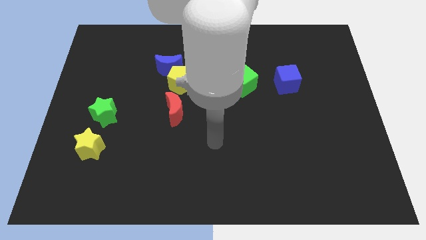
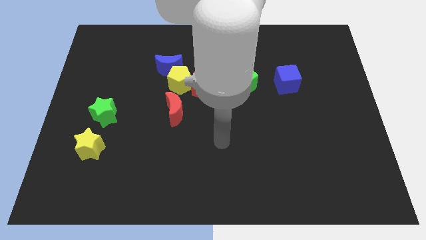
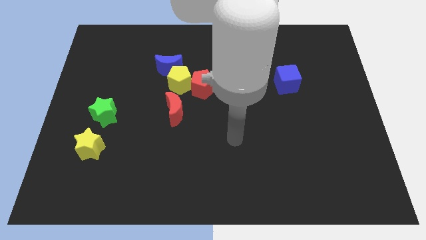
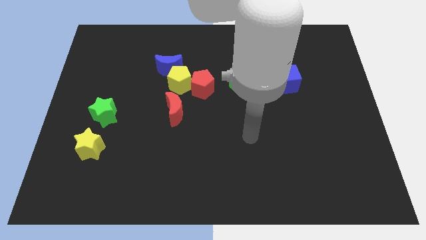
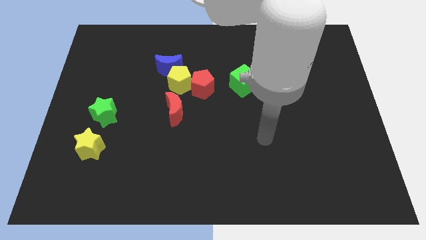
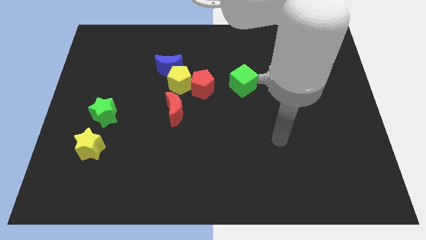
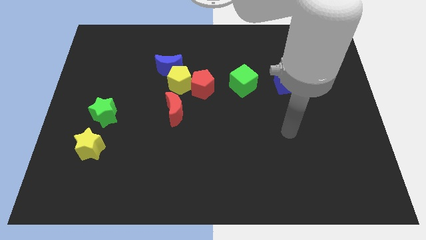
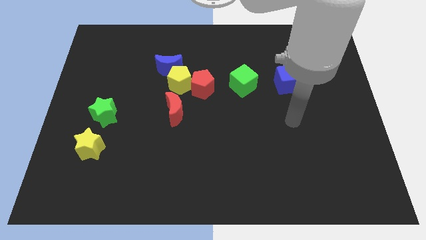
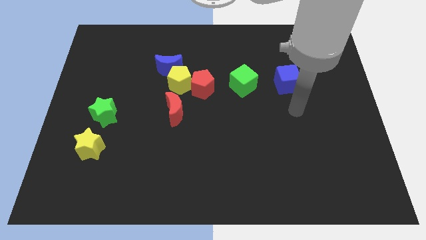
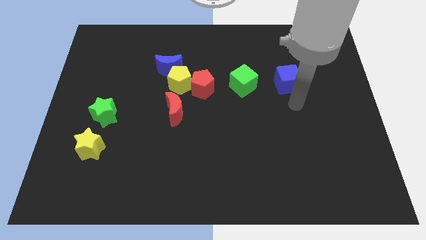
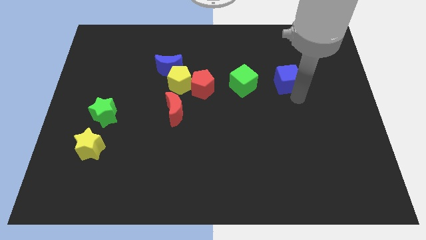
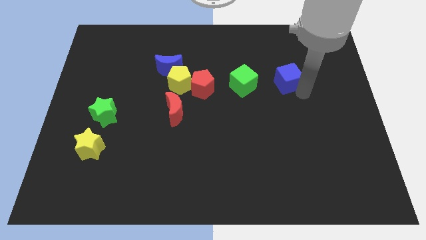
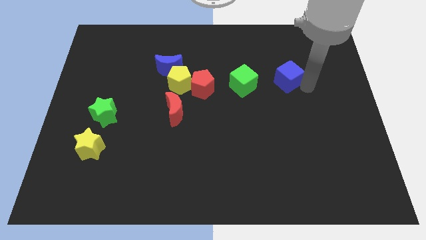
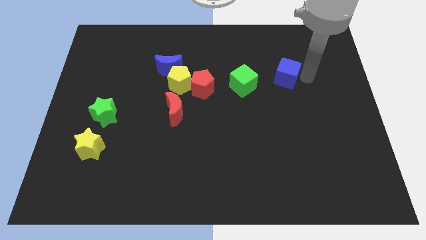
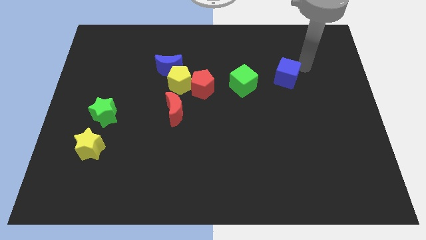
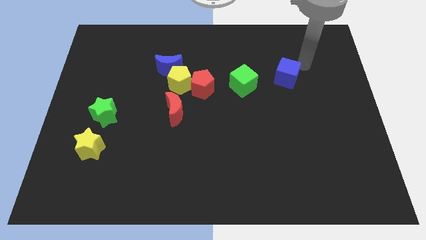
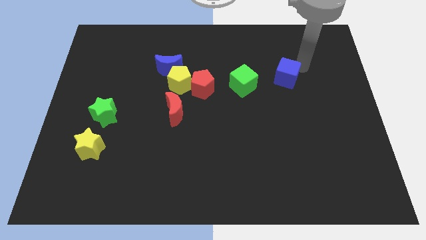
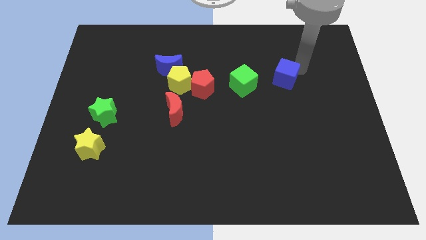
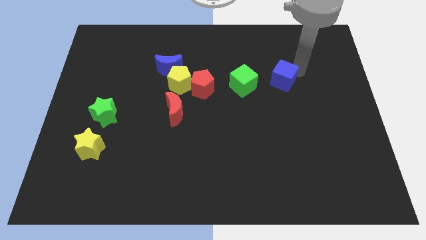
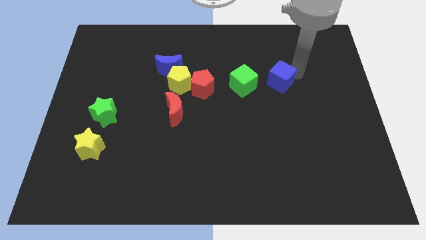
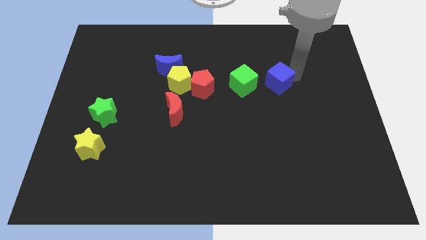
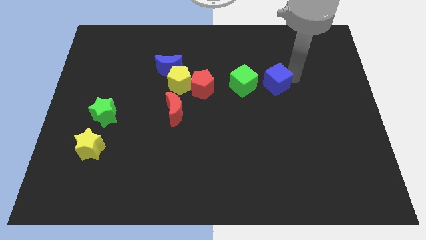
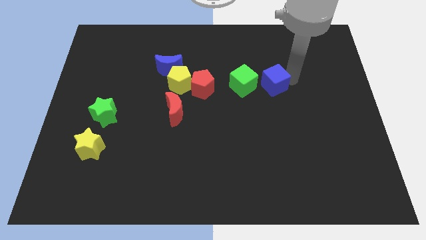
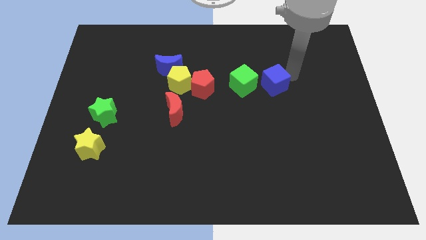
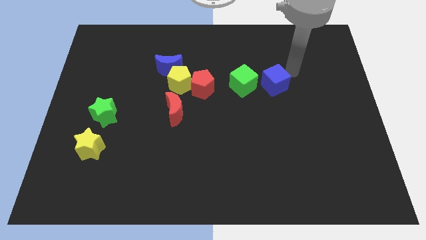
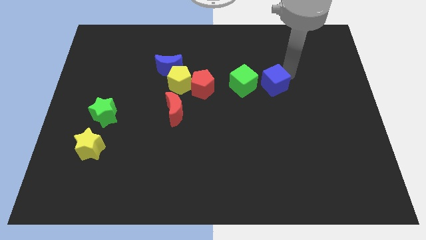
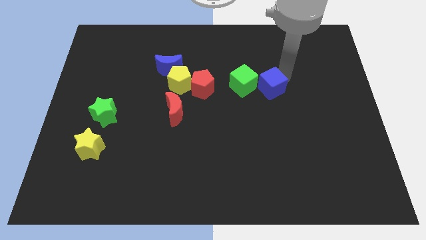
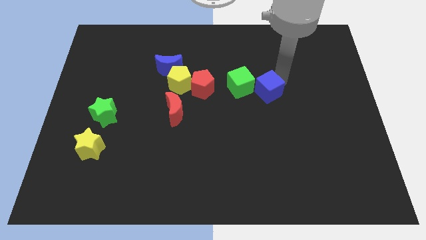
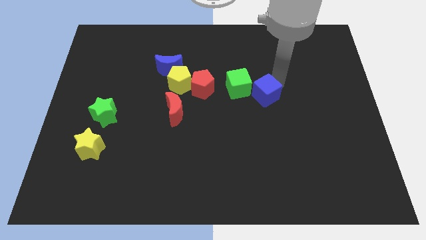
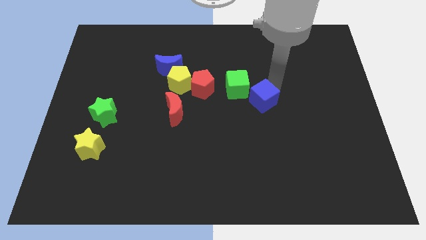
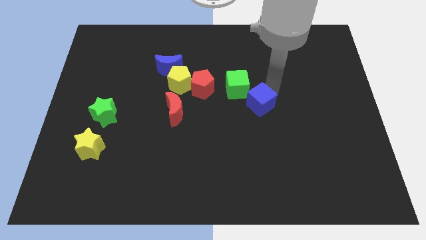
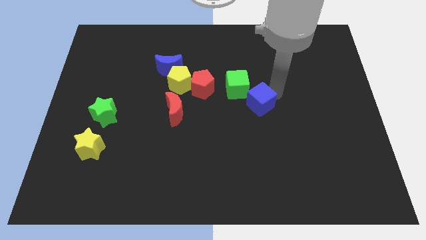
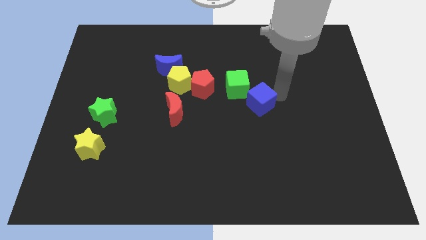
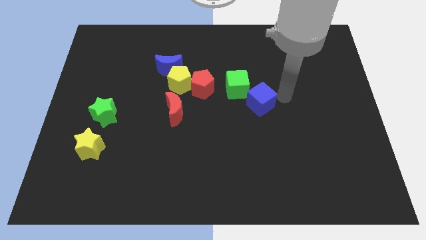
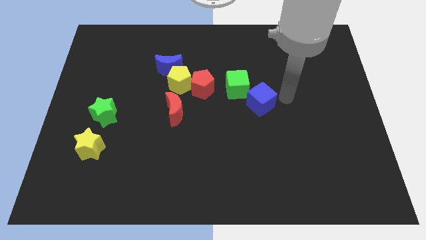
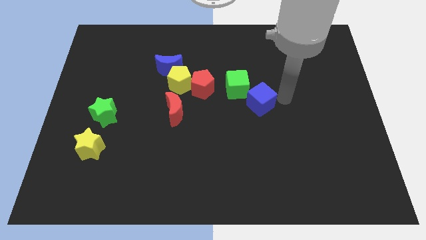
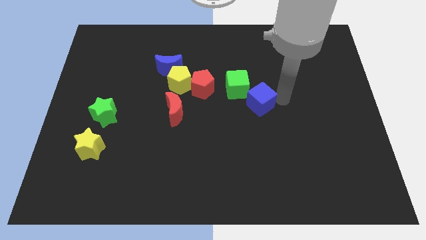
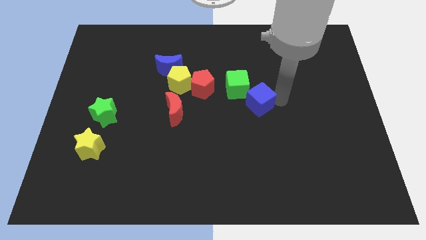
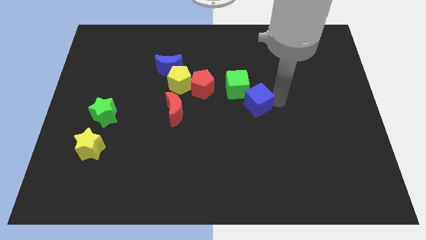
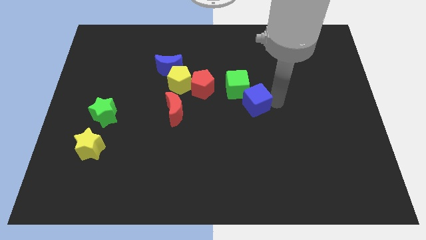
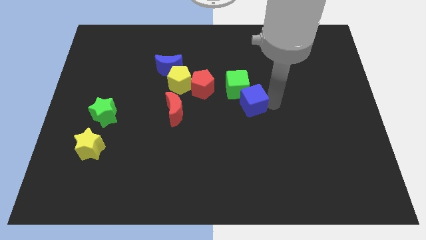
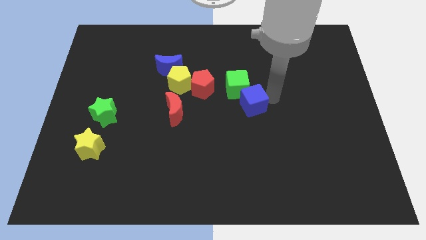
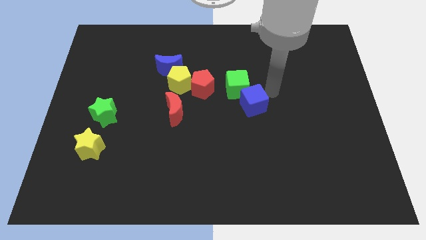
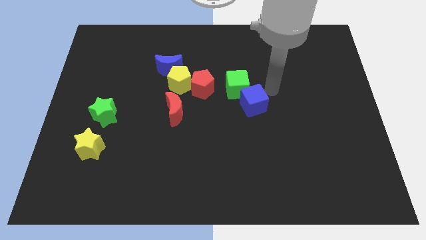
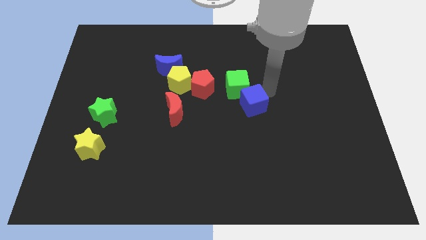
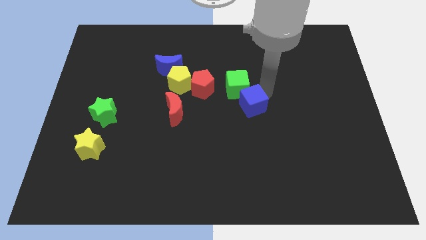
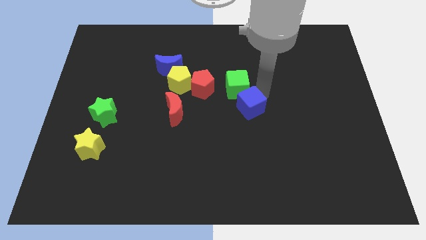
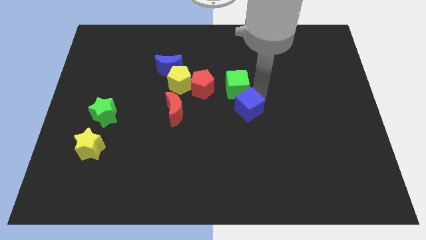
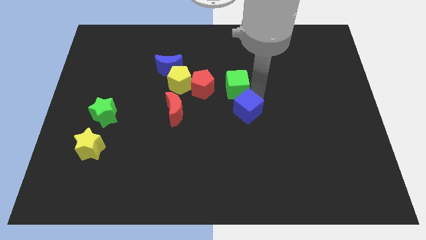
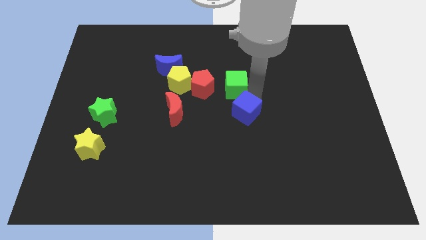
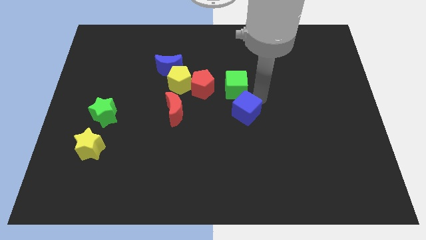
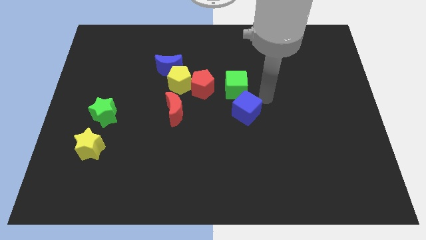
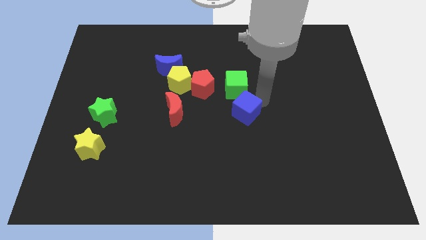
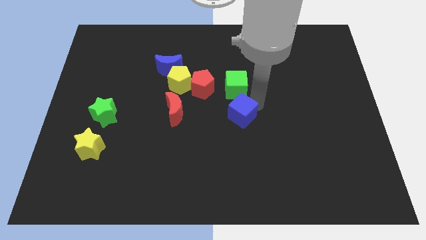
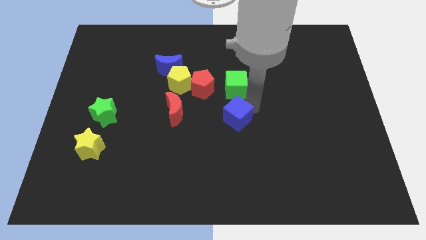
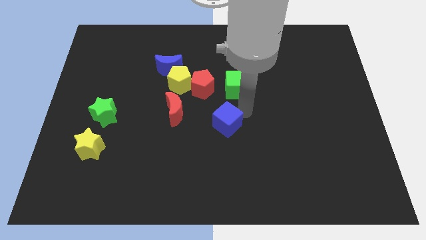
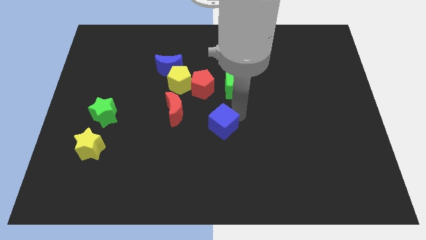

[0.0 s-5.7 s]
slide the blue cube downwards and left diagonally

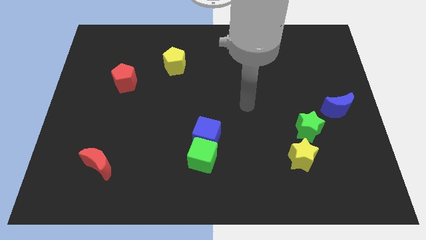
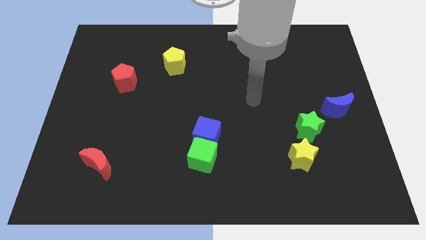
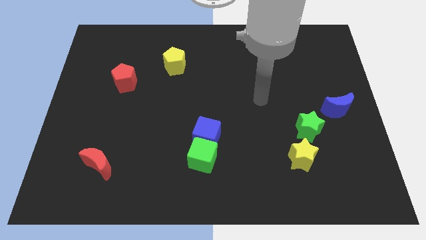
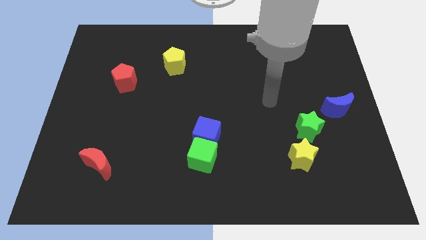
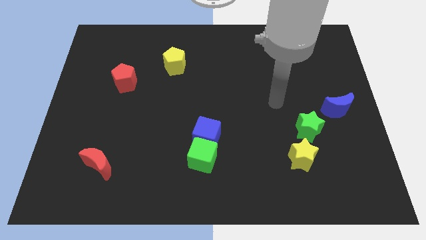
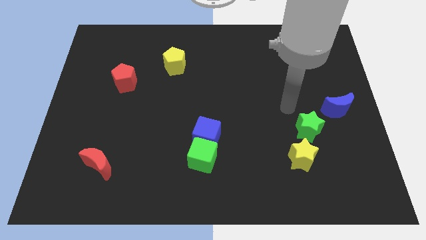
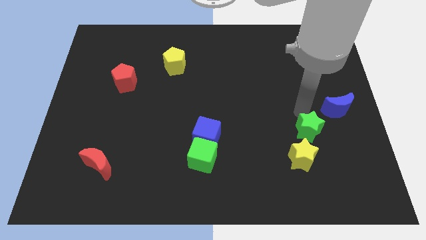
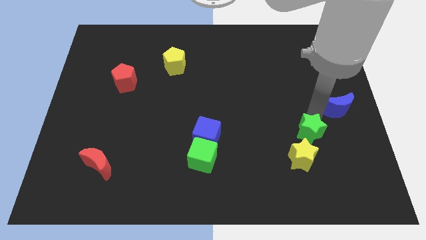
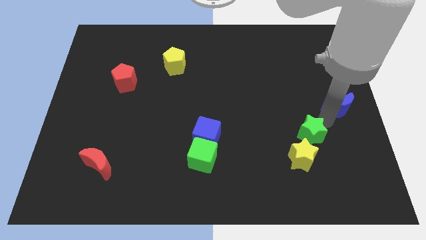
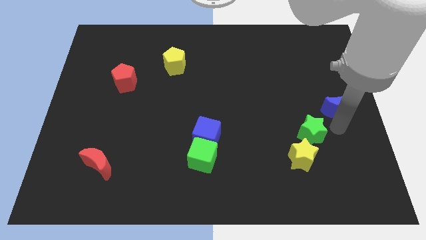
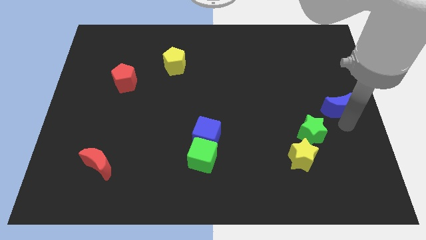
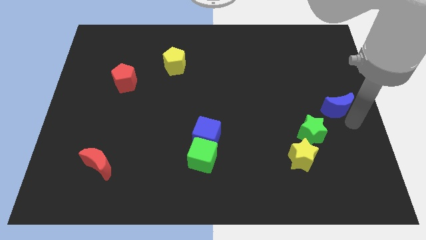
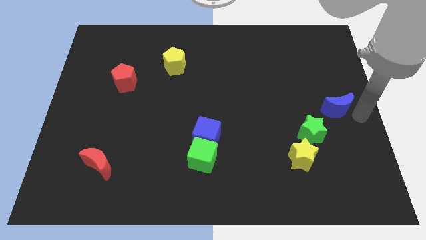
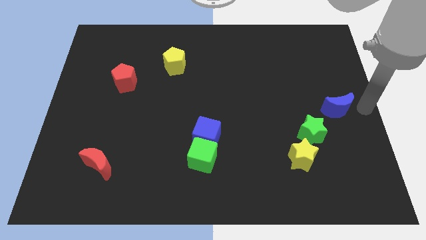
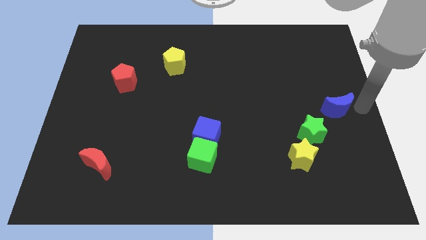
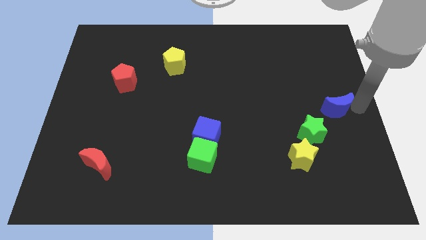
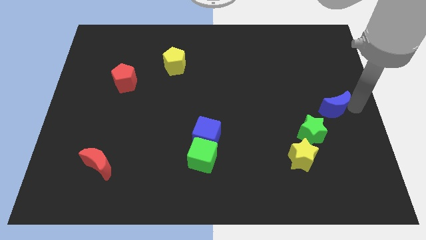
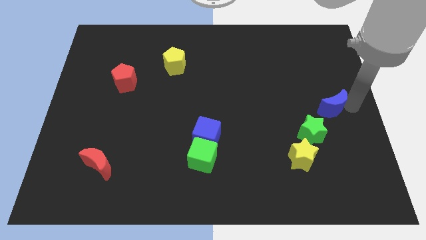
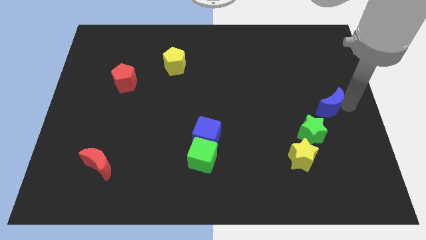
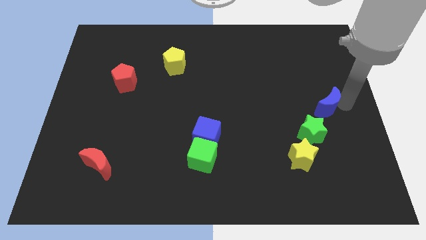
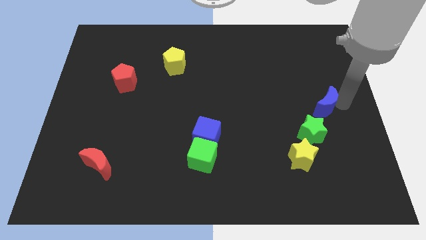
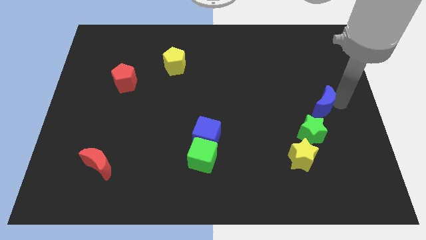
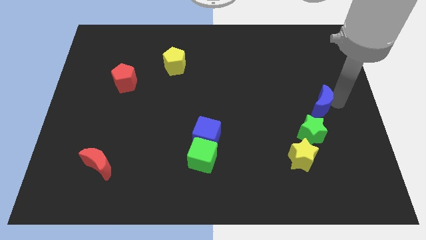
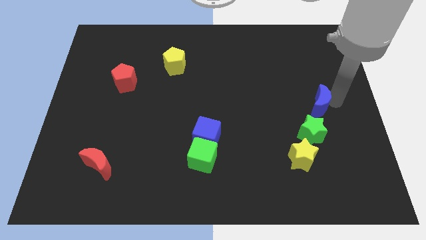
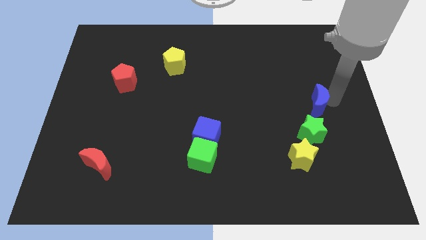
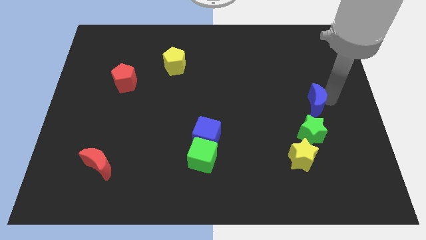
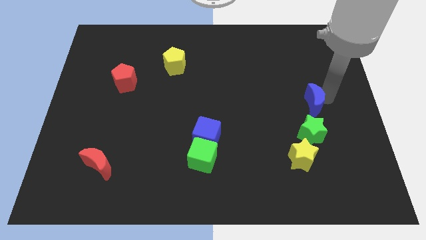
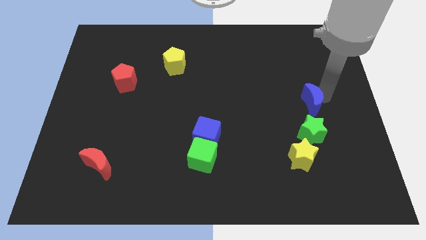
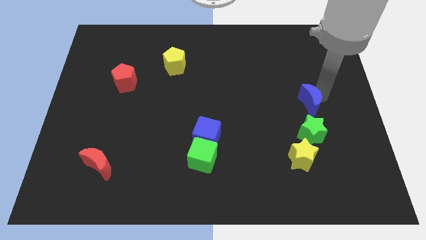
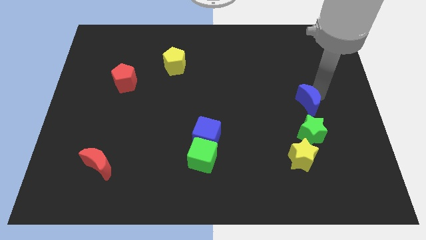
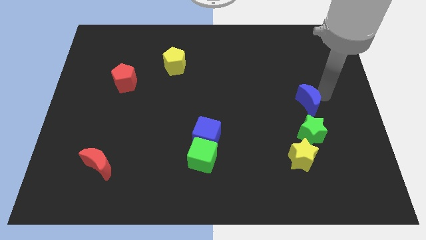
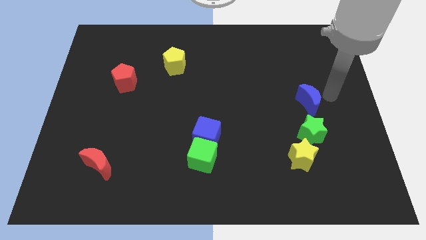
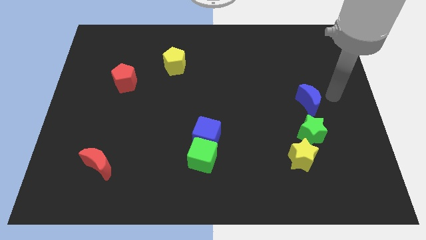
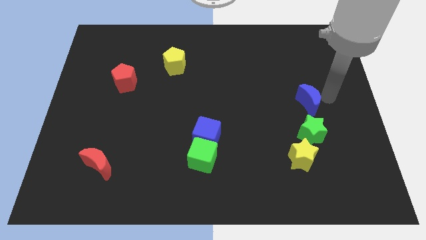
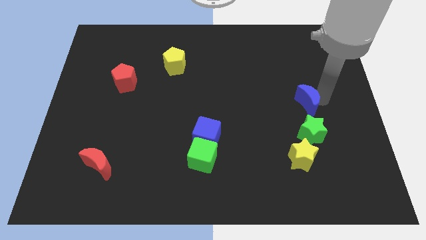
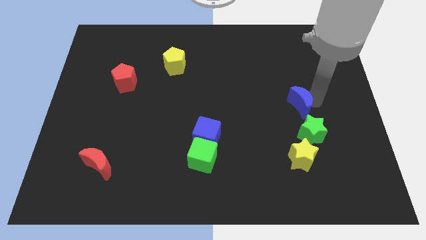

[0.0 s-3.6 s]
push the blue moon left a little bit
